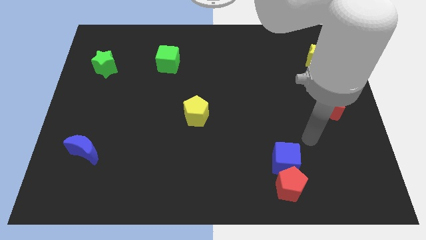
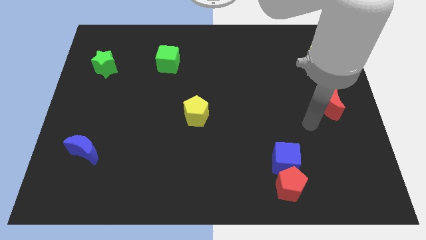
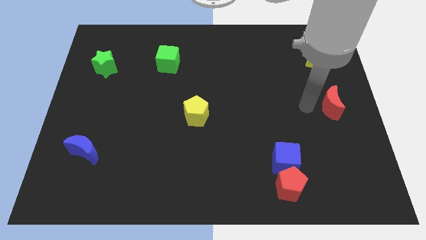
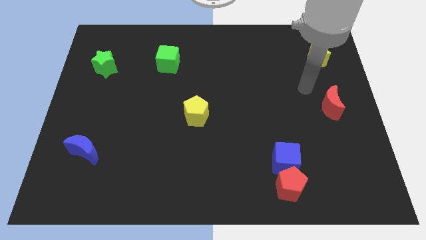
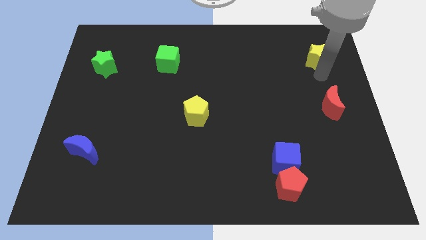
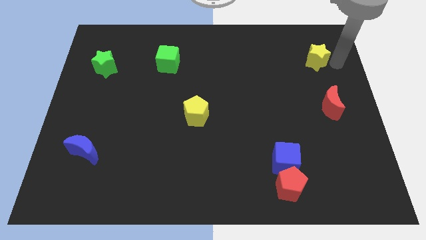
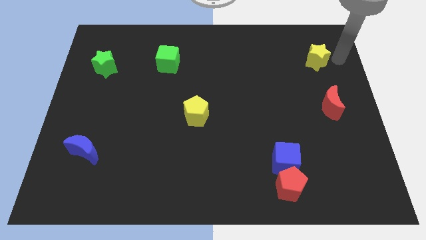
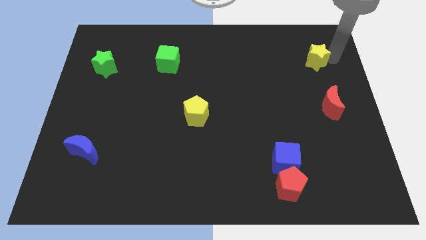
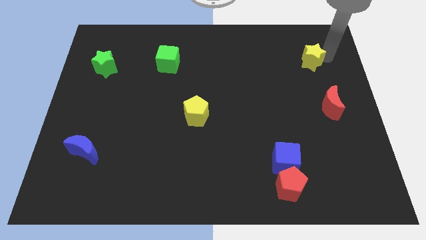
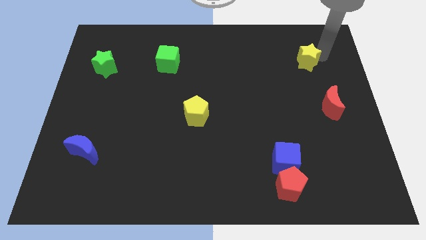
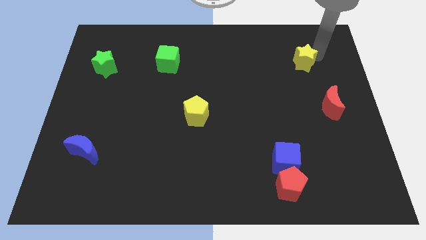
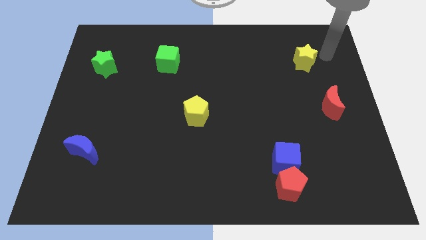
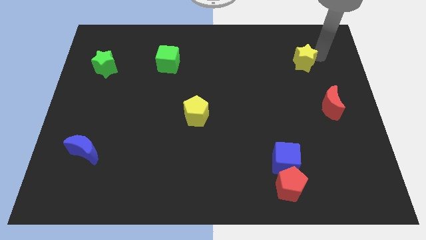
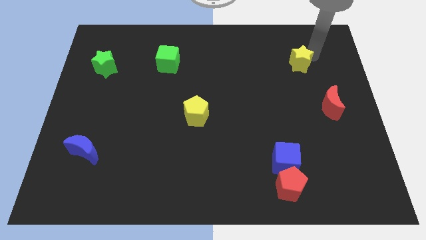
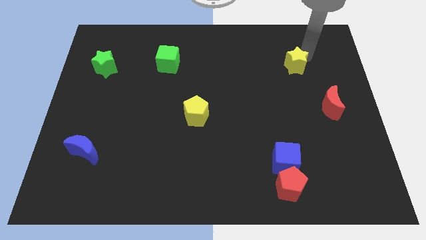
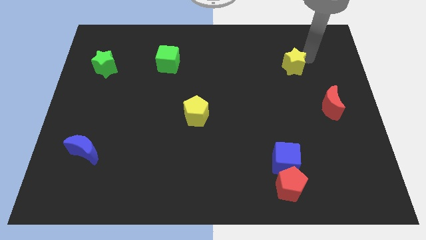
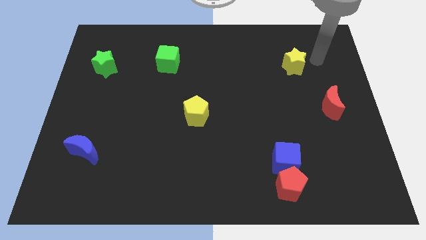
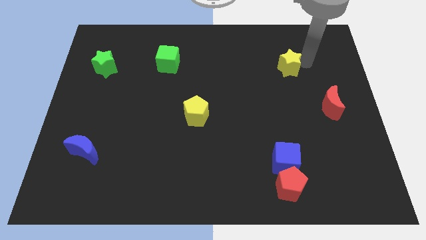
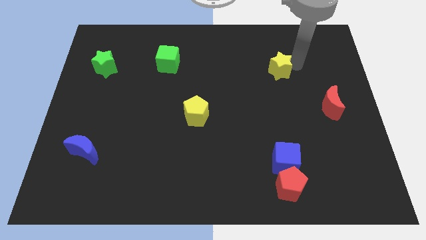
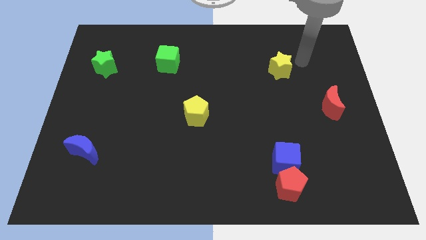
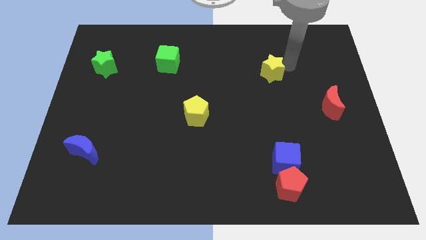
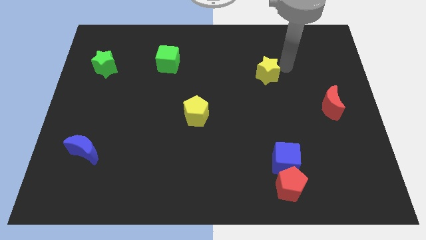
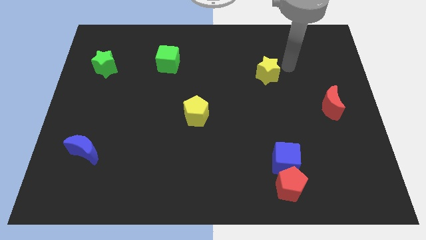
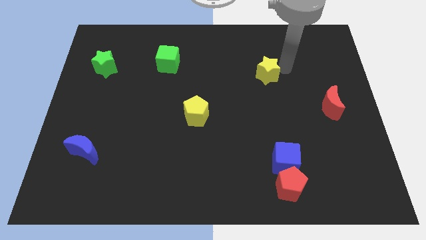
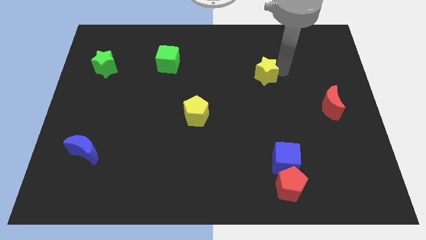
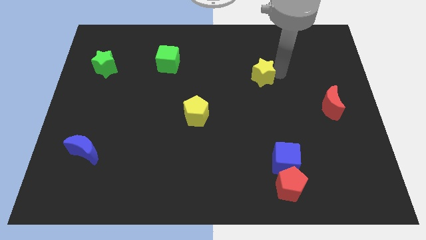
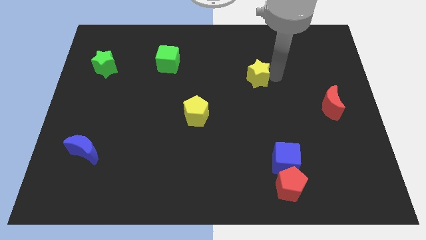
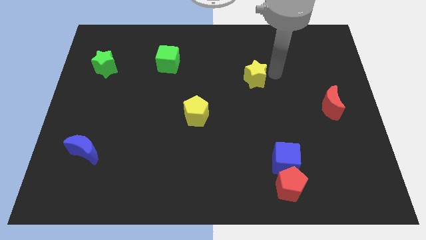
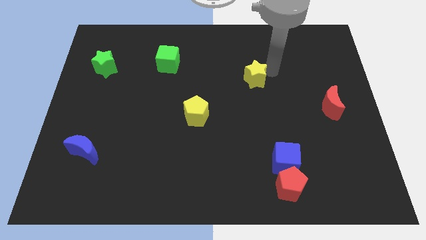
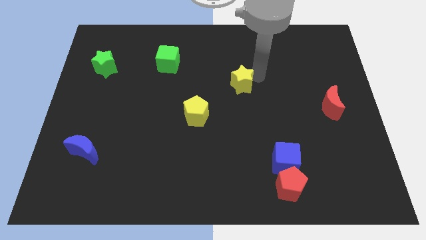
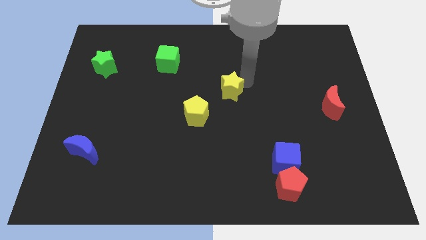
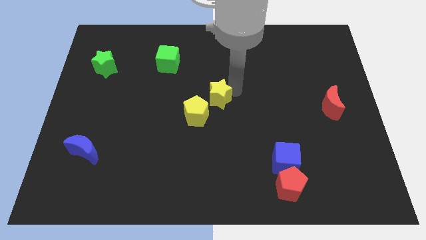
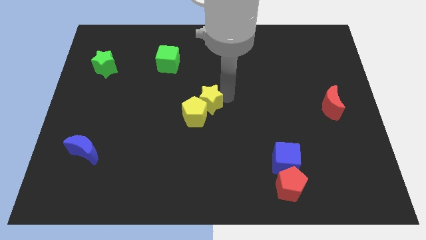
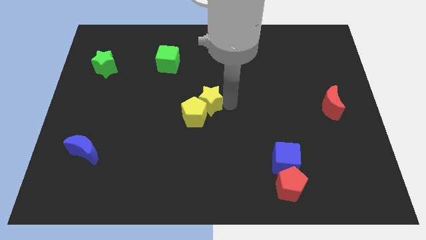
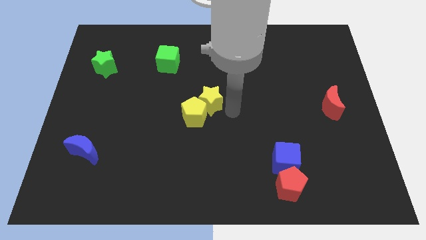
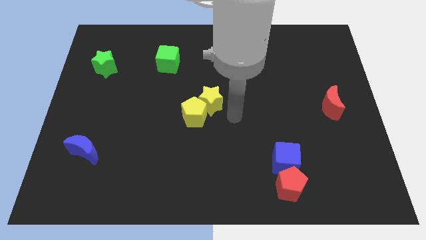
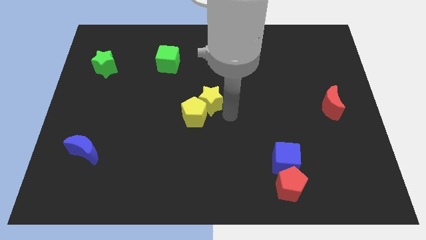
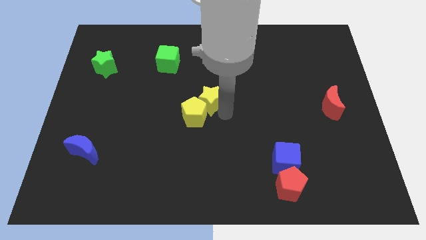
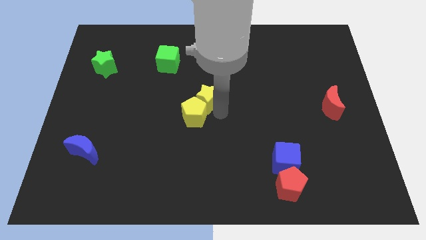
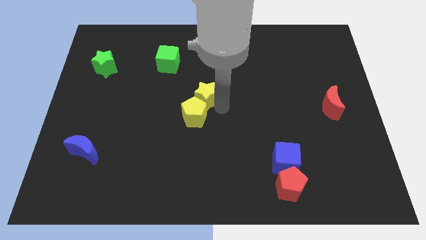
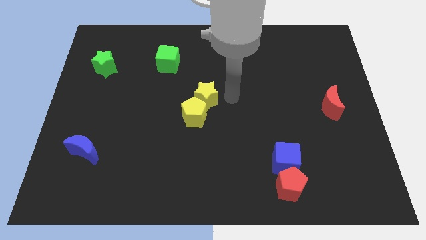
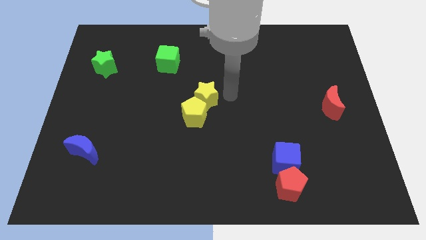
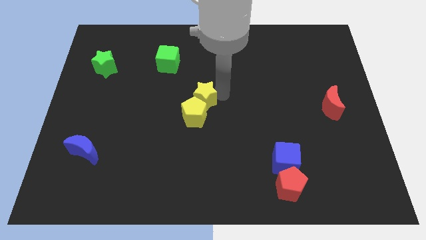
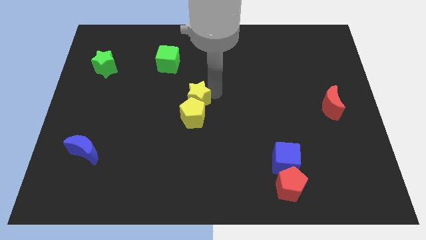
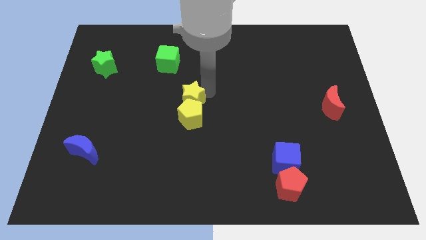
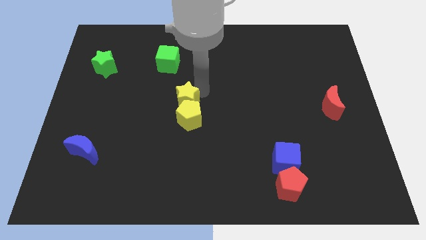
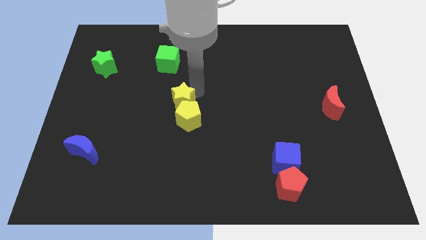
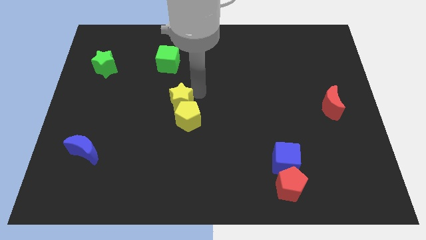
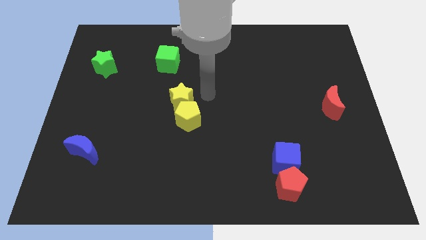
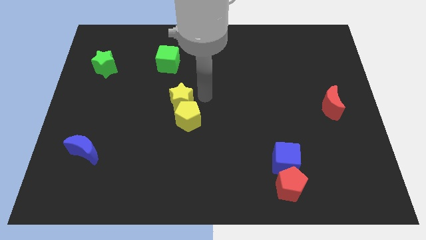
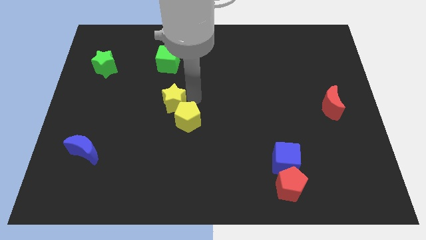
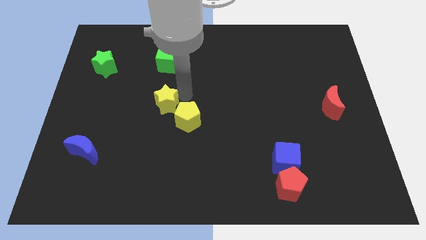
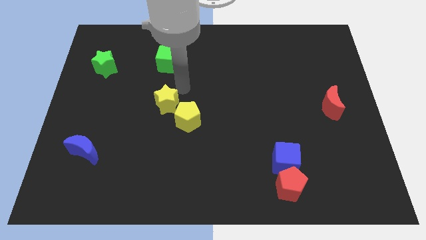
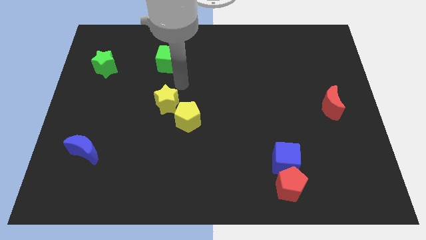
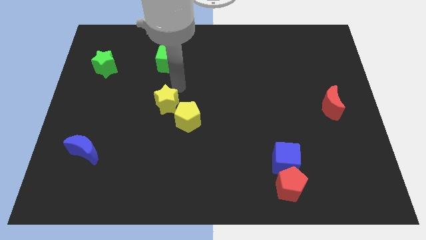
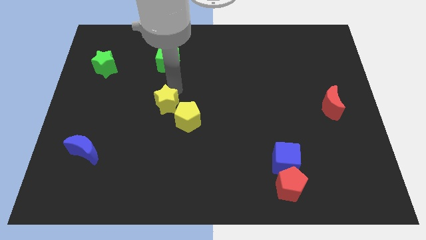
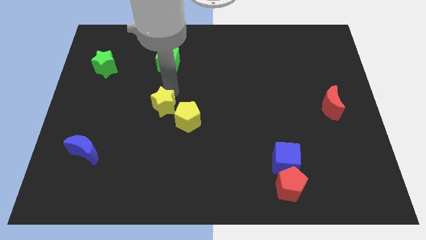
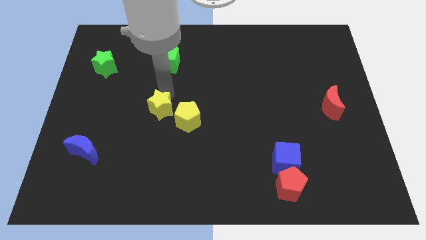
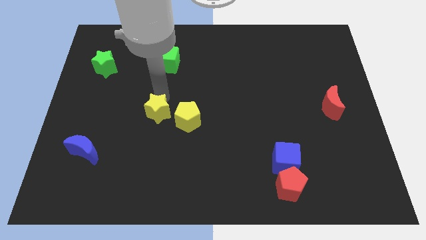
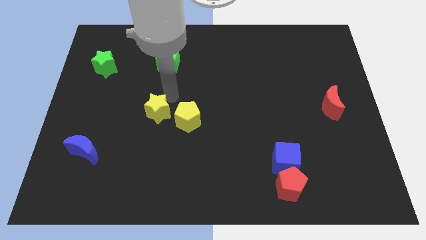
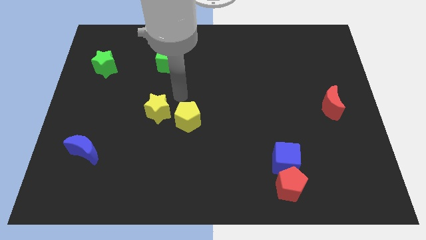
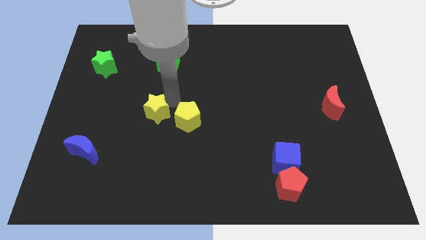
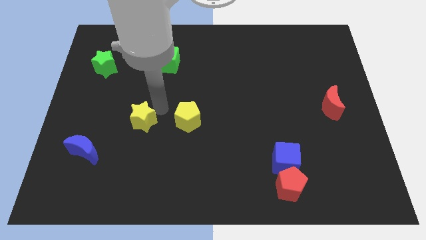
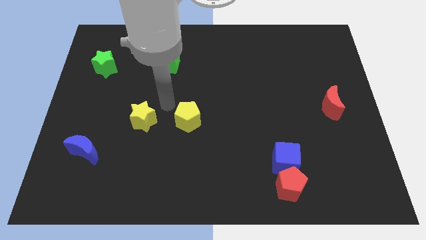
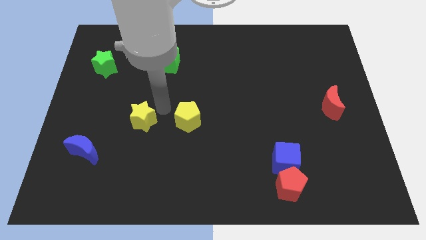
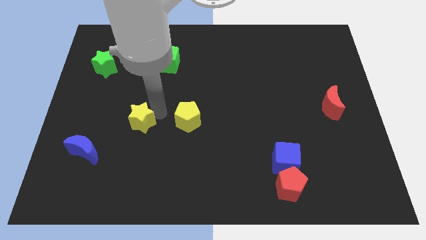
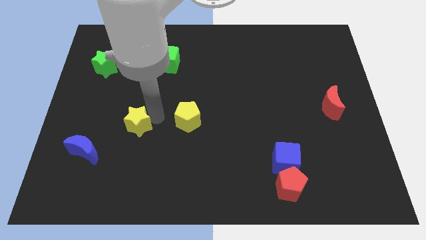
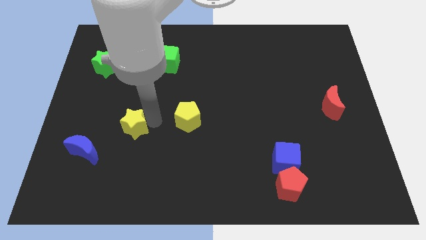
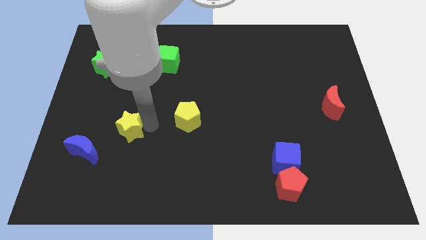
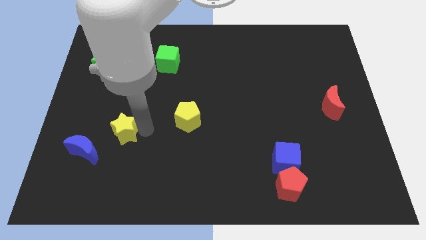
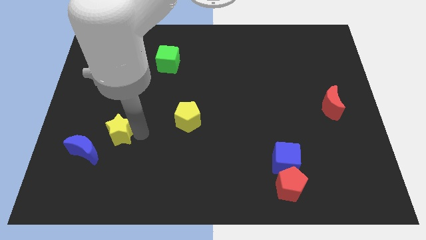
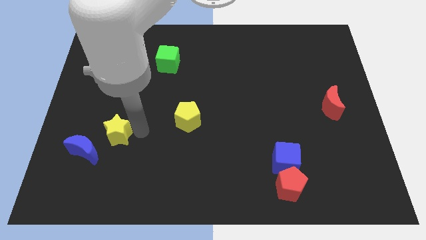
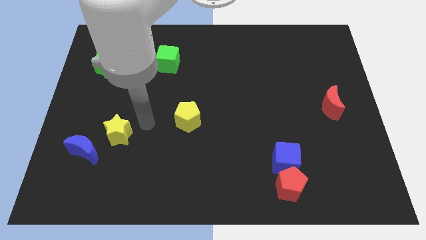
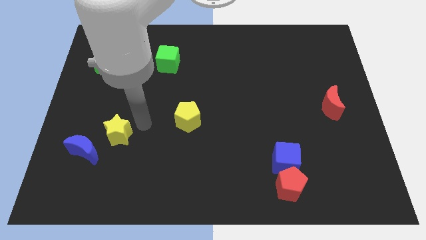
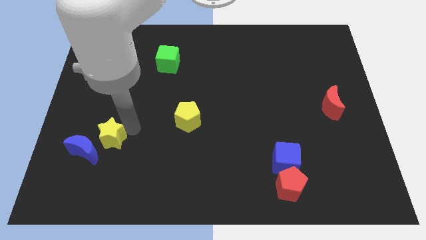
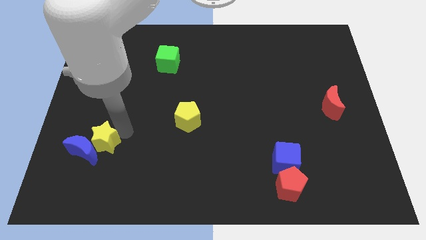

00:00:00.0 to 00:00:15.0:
push the yellow star towards the blue moon

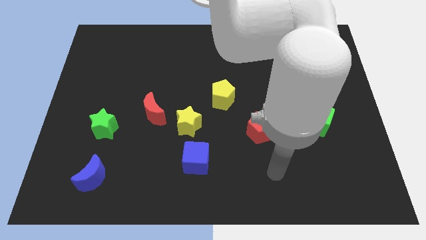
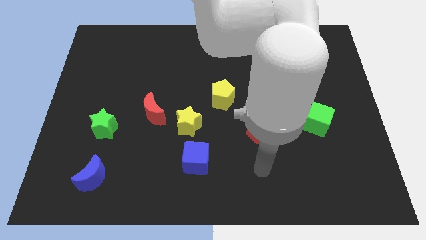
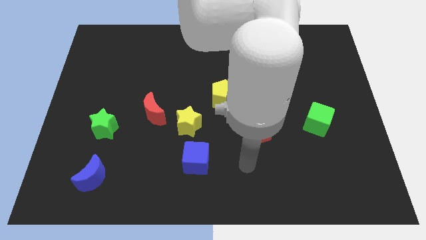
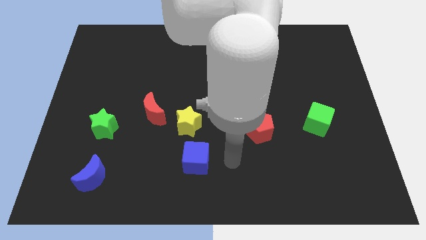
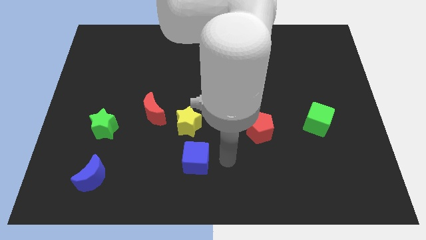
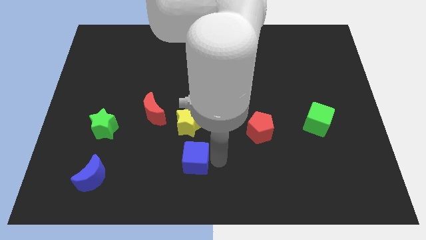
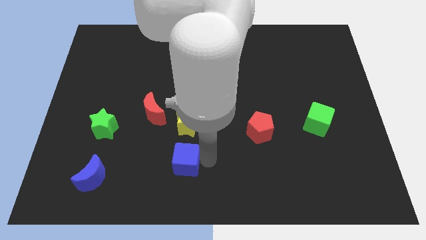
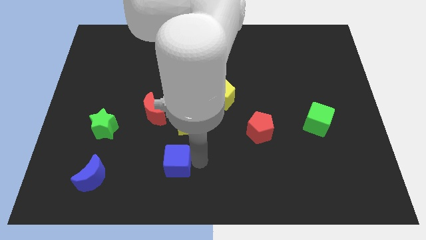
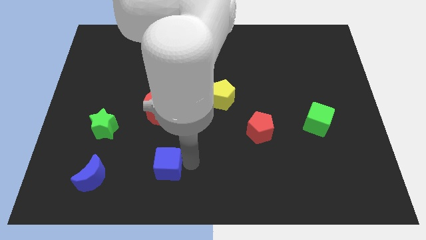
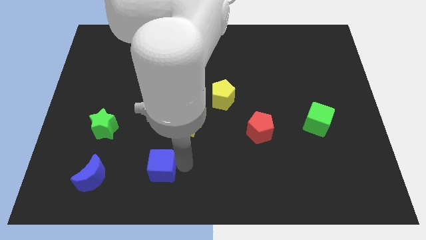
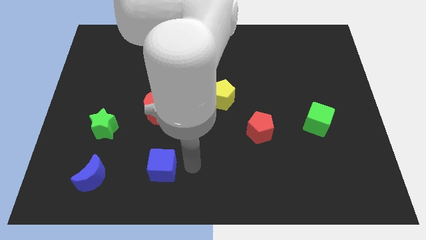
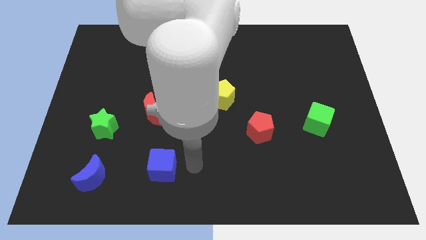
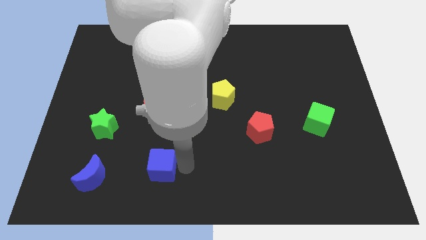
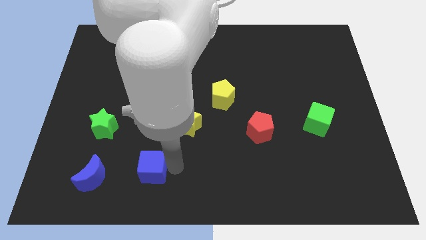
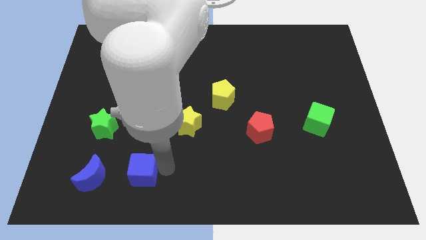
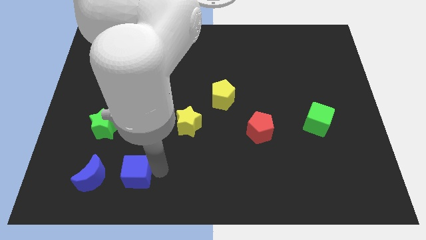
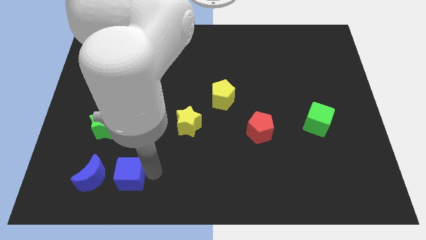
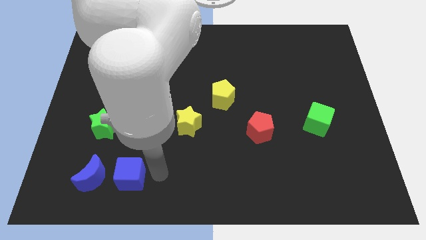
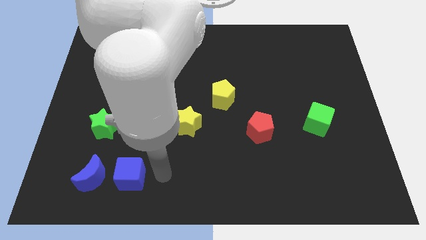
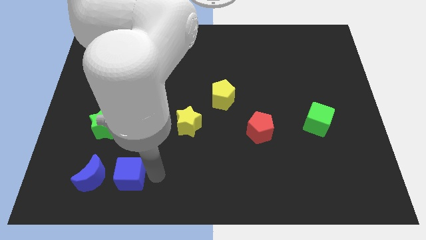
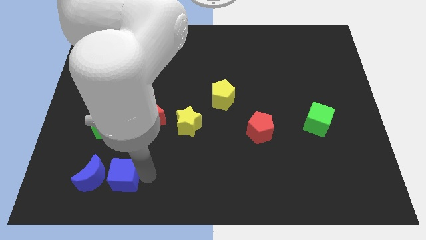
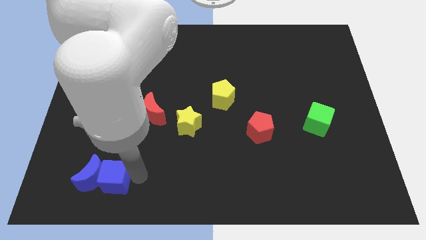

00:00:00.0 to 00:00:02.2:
push the blue cube next to the blue moon
